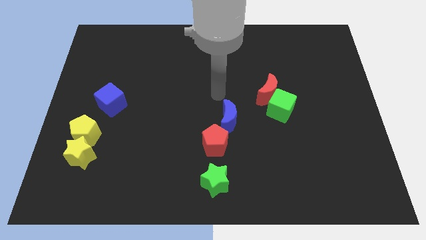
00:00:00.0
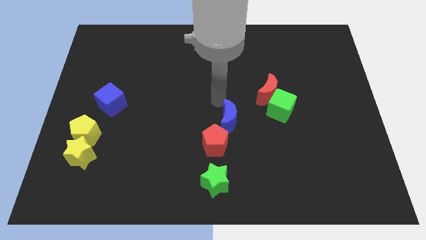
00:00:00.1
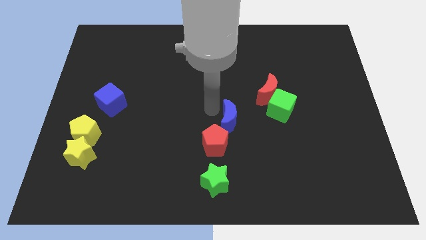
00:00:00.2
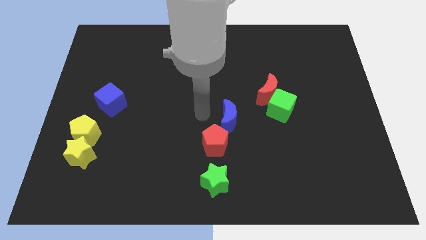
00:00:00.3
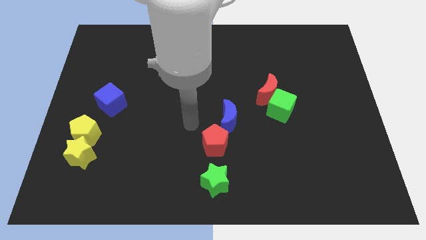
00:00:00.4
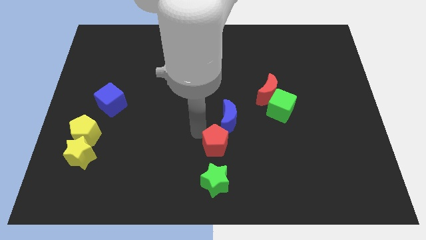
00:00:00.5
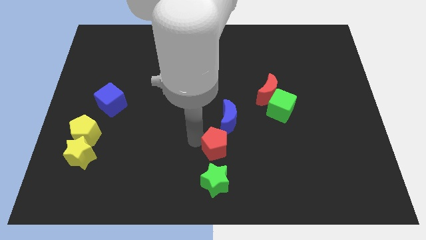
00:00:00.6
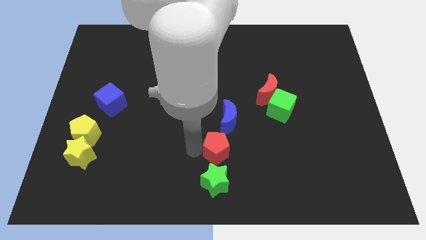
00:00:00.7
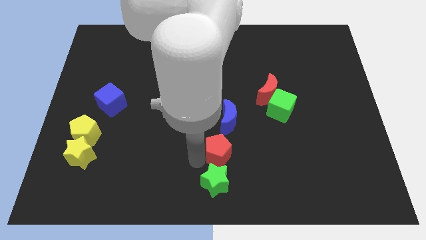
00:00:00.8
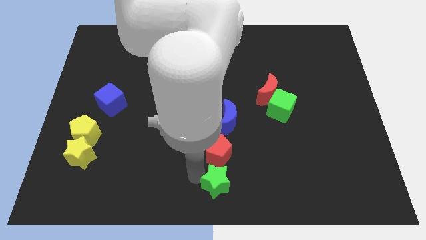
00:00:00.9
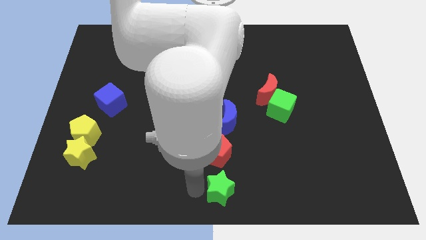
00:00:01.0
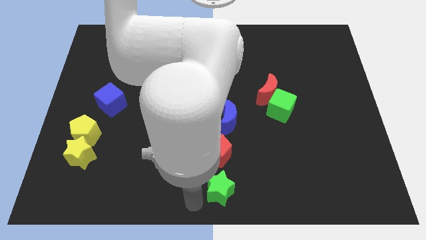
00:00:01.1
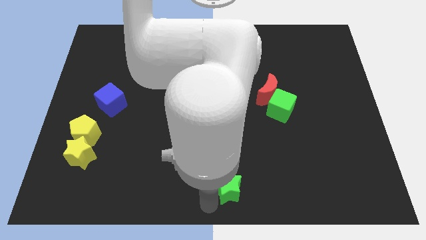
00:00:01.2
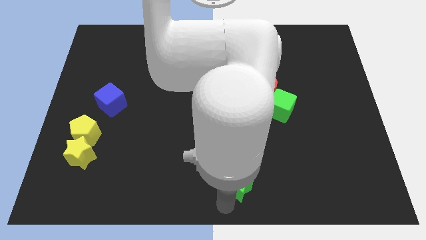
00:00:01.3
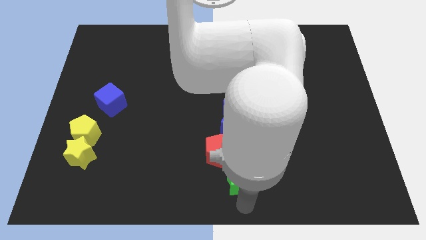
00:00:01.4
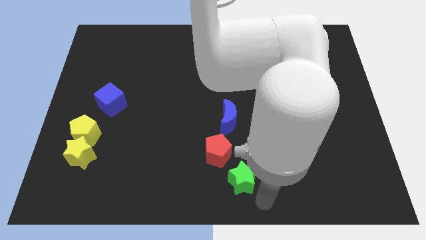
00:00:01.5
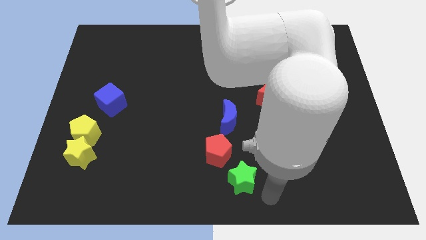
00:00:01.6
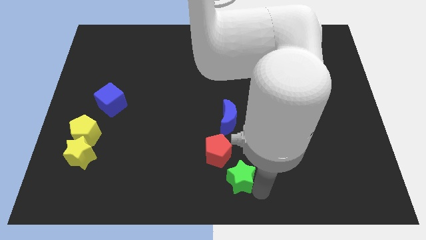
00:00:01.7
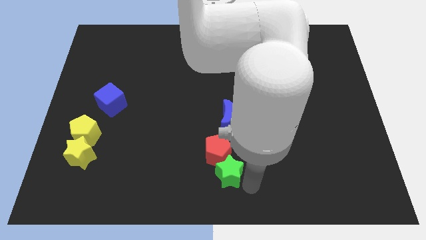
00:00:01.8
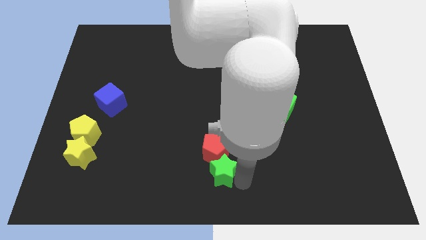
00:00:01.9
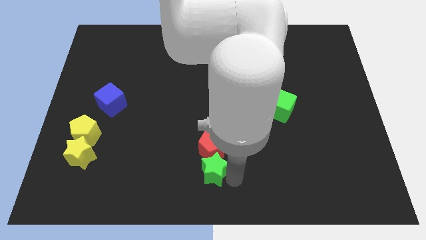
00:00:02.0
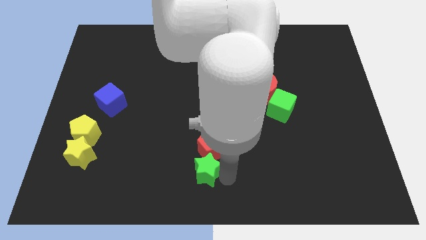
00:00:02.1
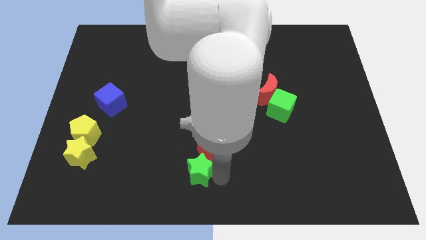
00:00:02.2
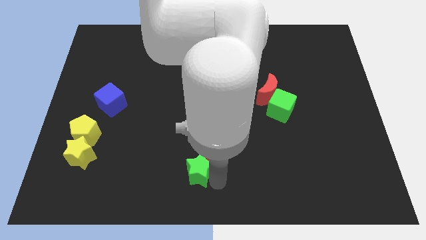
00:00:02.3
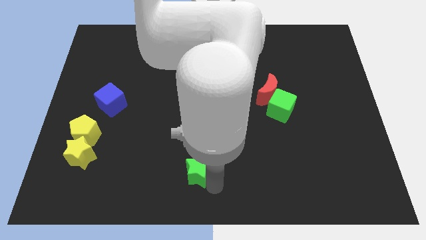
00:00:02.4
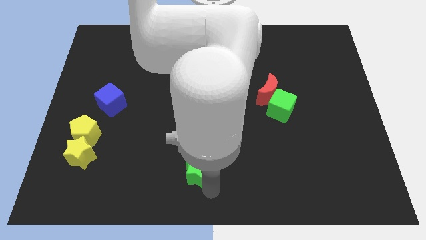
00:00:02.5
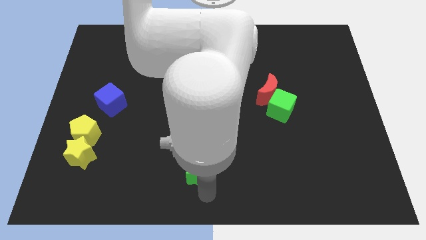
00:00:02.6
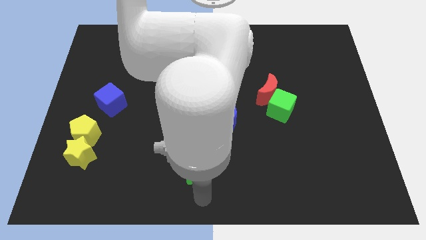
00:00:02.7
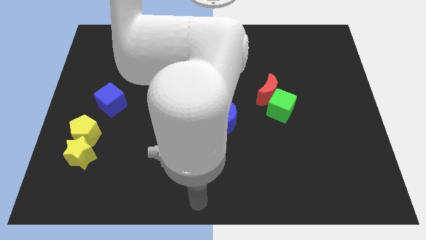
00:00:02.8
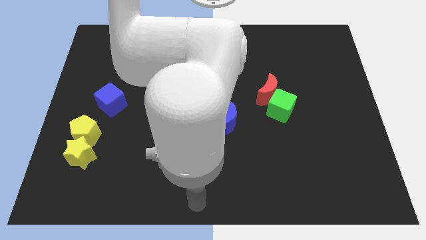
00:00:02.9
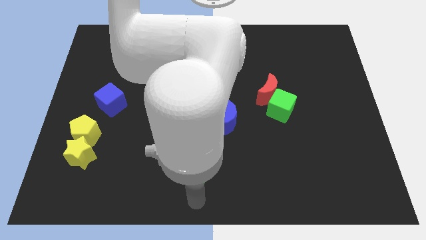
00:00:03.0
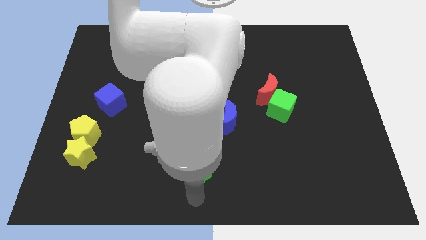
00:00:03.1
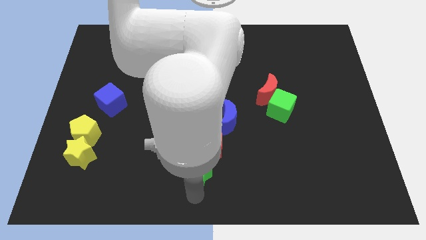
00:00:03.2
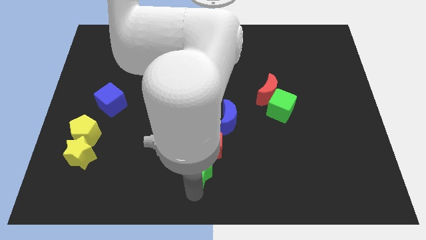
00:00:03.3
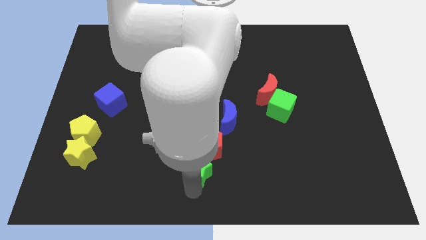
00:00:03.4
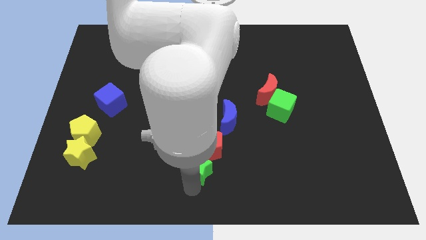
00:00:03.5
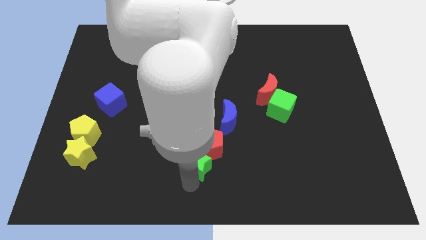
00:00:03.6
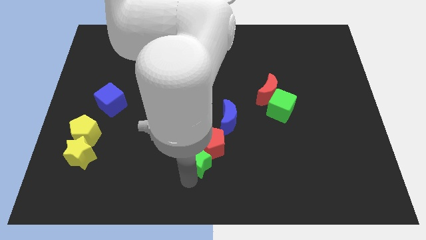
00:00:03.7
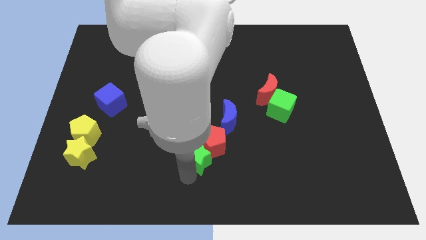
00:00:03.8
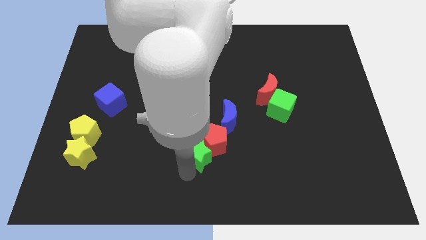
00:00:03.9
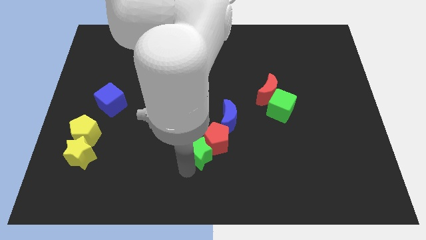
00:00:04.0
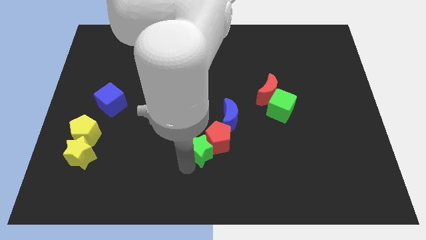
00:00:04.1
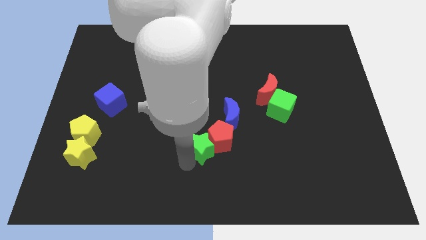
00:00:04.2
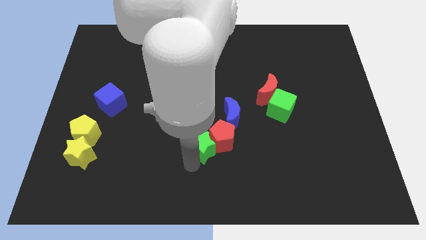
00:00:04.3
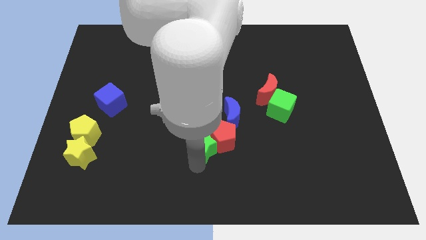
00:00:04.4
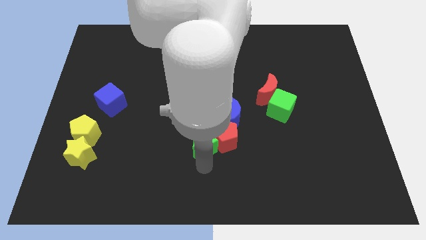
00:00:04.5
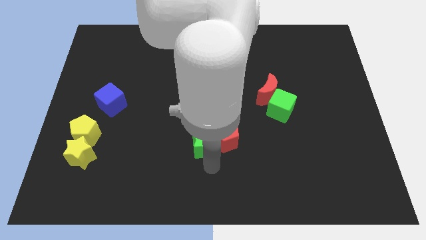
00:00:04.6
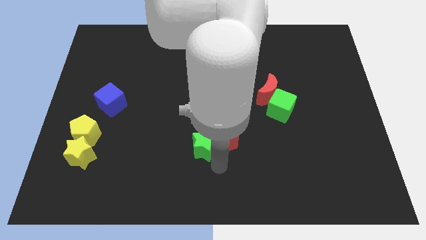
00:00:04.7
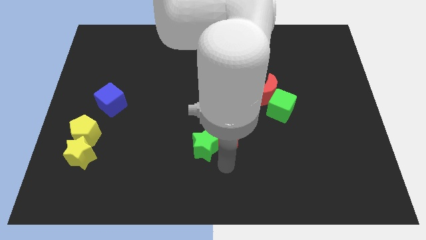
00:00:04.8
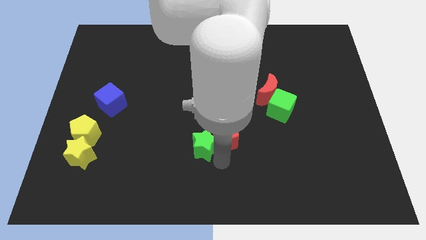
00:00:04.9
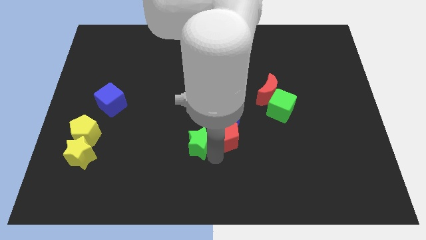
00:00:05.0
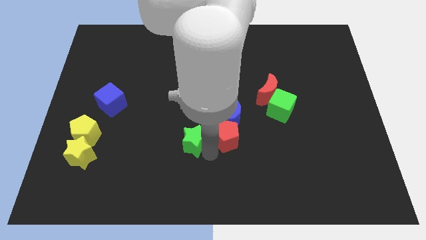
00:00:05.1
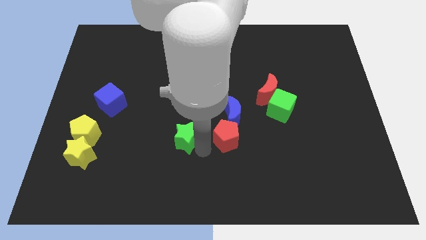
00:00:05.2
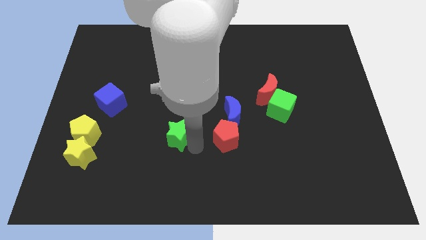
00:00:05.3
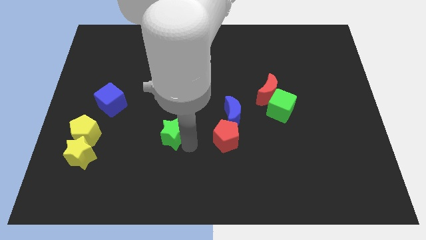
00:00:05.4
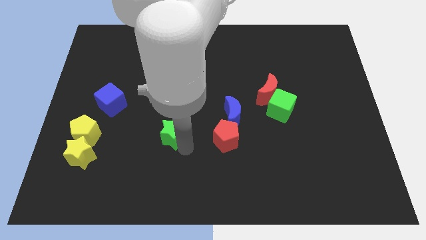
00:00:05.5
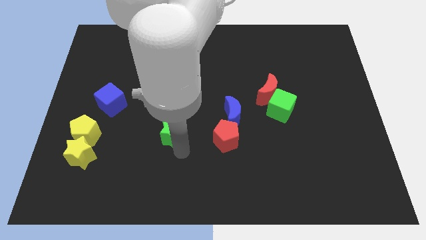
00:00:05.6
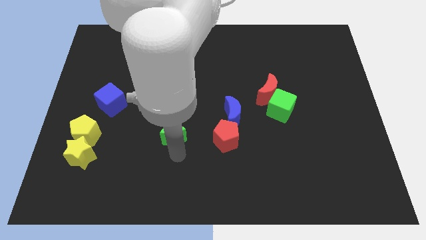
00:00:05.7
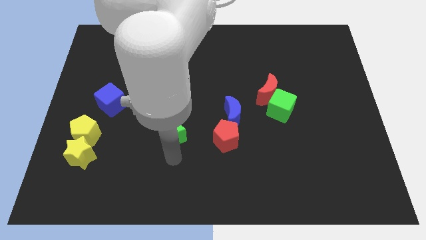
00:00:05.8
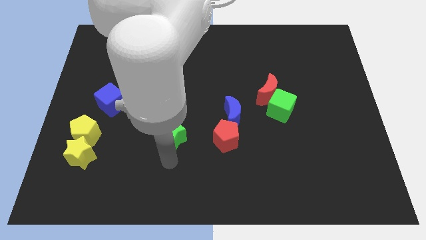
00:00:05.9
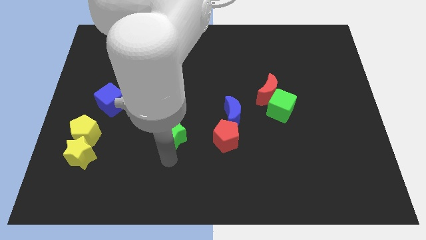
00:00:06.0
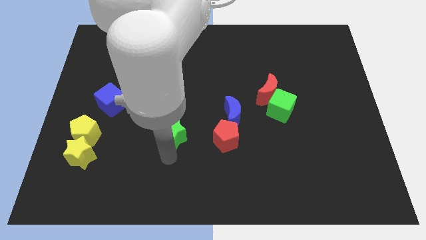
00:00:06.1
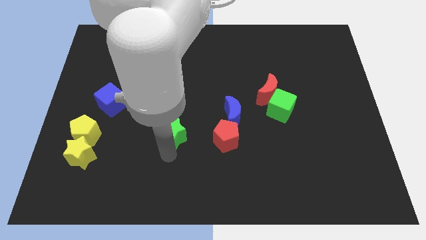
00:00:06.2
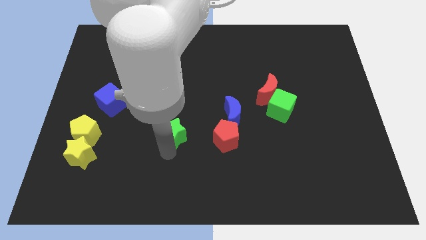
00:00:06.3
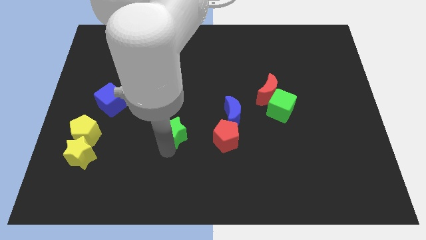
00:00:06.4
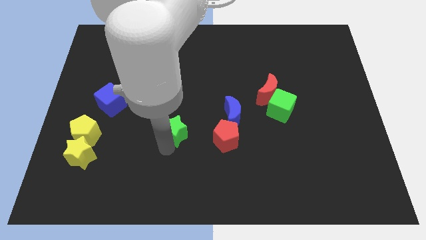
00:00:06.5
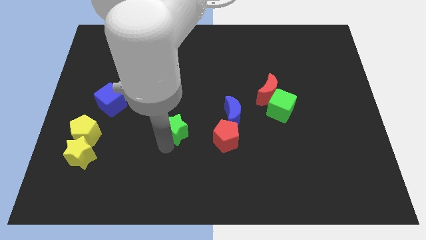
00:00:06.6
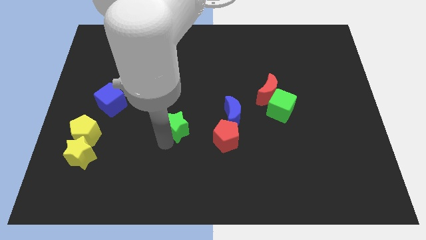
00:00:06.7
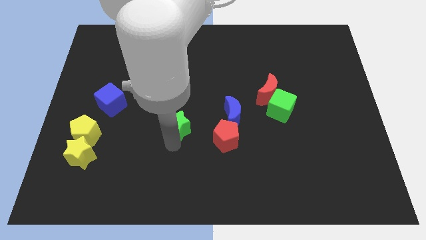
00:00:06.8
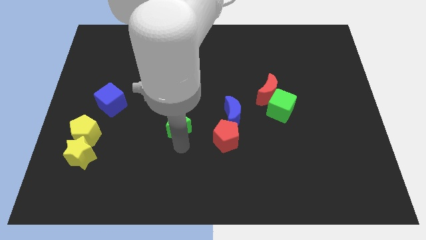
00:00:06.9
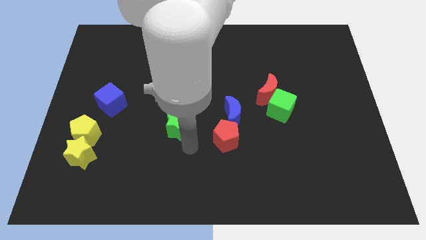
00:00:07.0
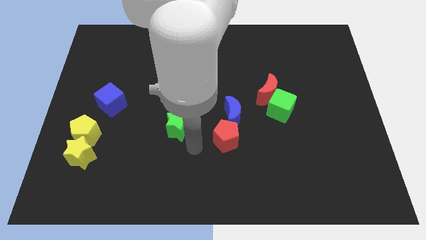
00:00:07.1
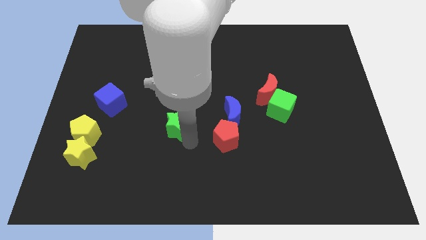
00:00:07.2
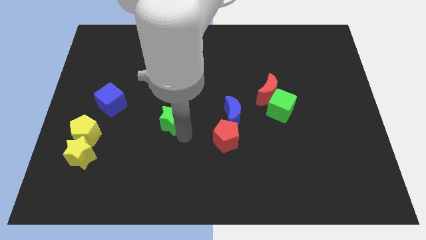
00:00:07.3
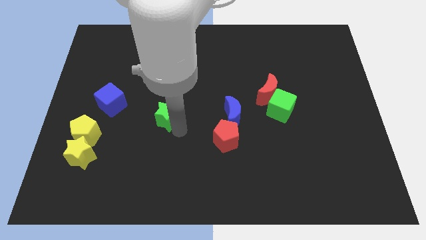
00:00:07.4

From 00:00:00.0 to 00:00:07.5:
slide the green star right of the blue cube
